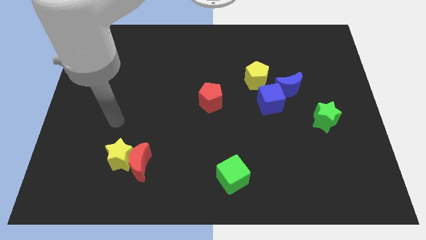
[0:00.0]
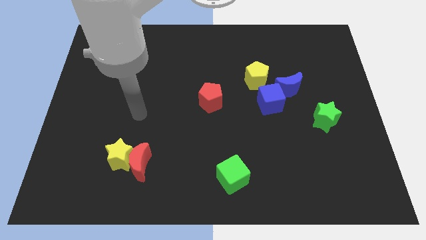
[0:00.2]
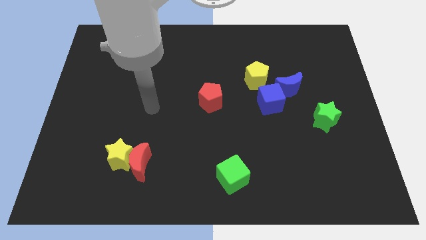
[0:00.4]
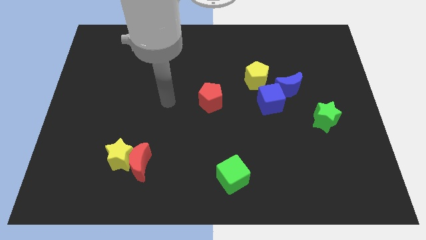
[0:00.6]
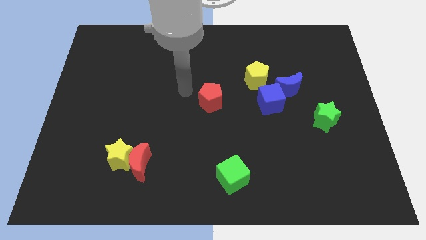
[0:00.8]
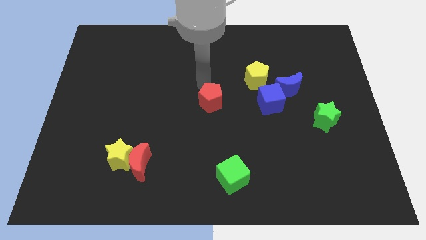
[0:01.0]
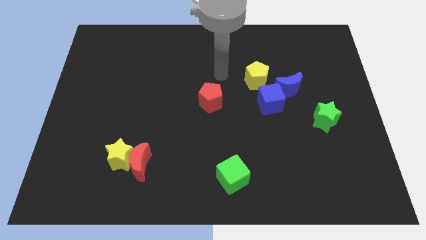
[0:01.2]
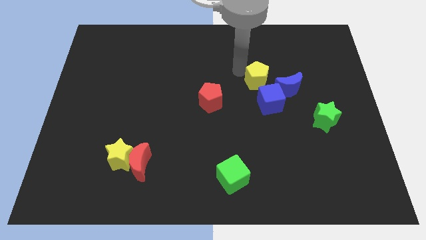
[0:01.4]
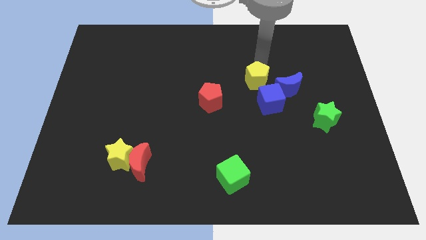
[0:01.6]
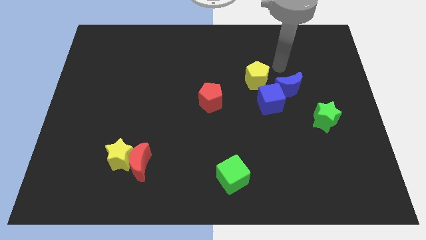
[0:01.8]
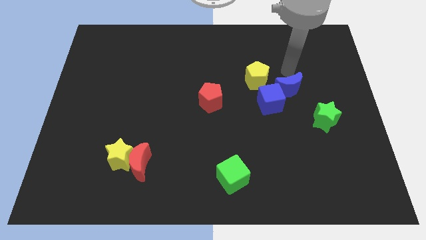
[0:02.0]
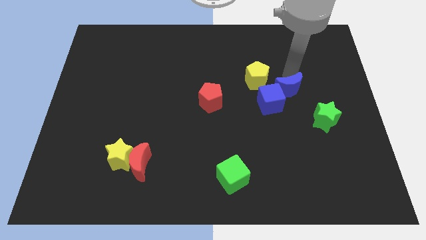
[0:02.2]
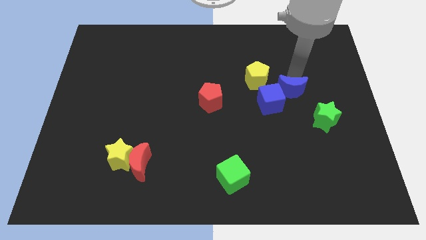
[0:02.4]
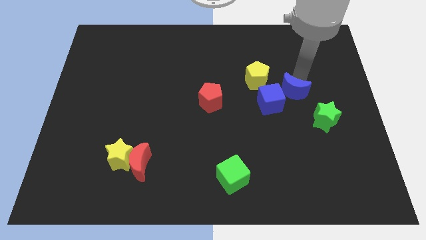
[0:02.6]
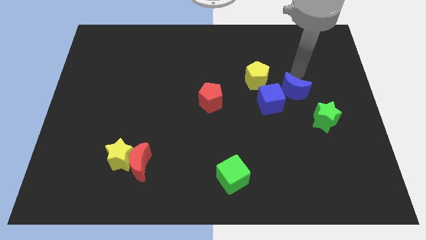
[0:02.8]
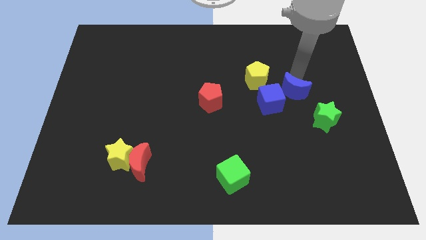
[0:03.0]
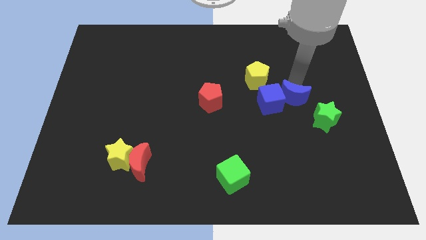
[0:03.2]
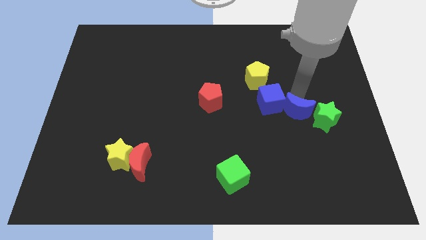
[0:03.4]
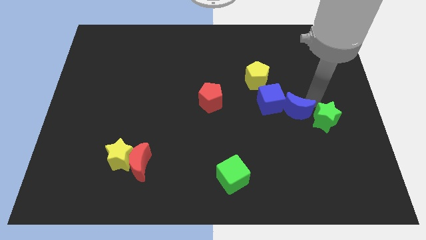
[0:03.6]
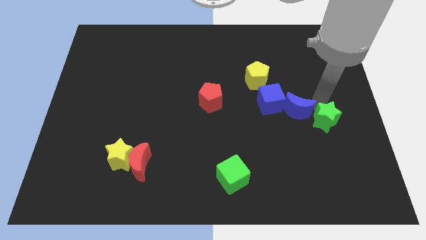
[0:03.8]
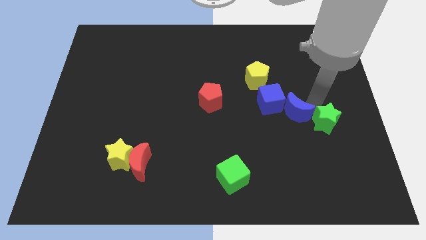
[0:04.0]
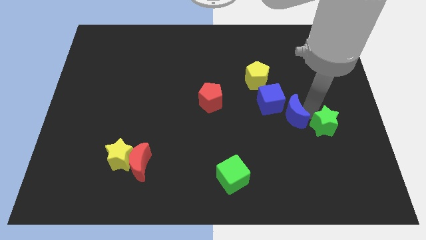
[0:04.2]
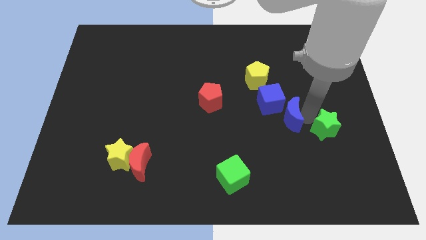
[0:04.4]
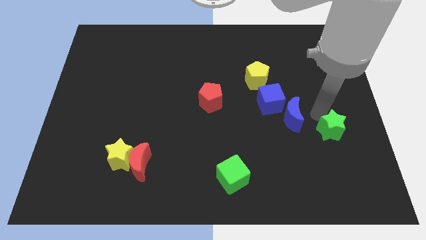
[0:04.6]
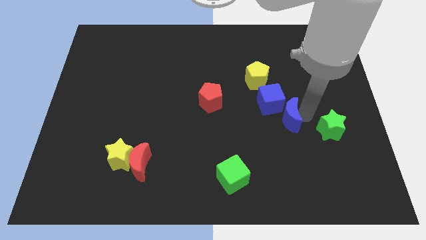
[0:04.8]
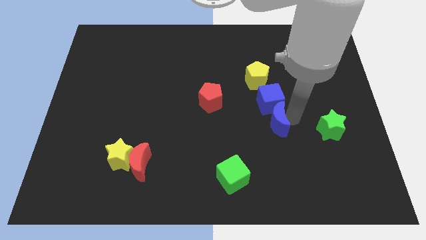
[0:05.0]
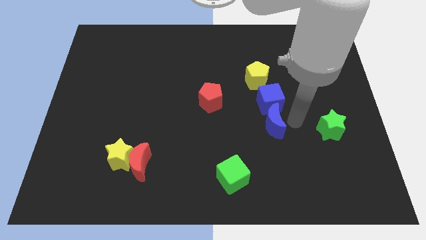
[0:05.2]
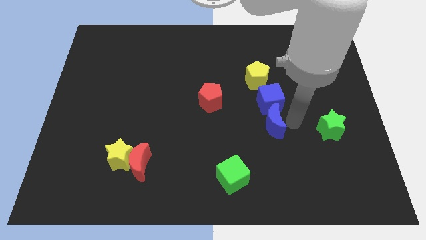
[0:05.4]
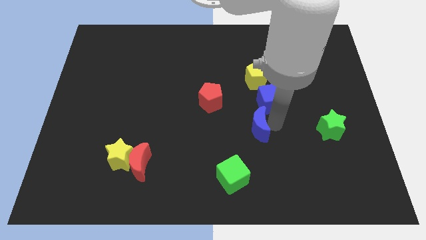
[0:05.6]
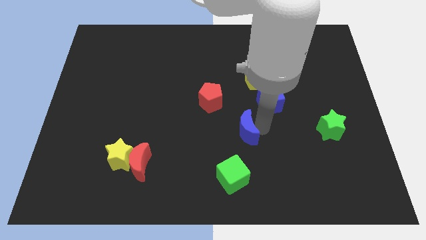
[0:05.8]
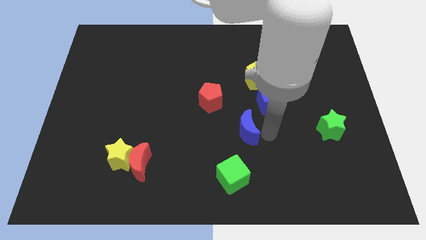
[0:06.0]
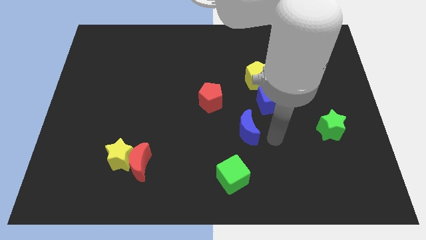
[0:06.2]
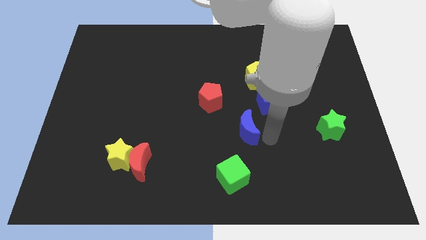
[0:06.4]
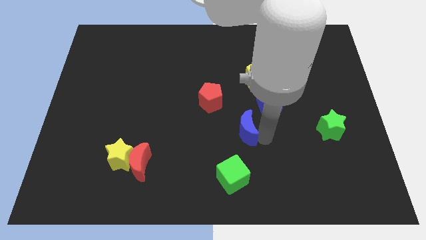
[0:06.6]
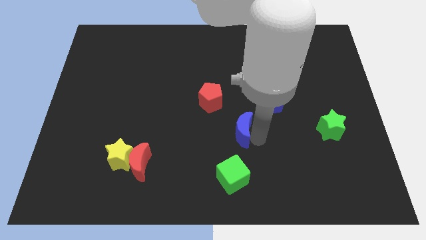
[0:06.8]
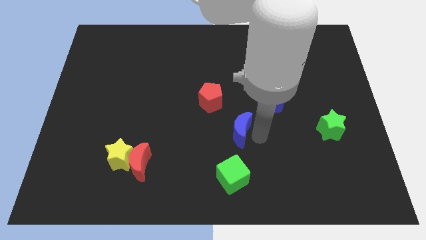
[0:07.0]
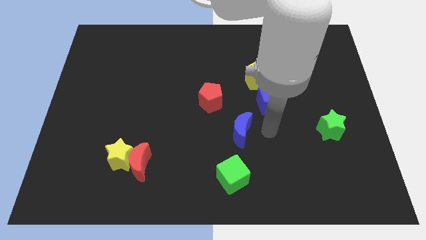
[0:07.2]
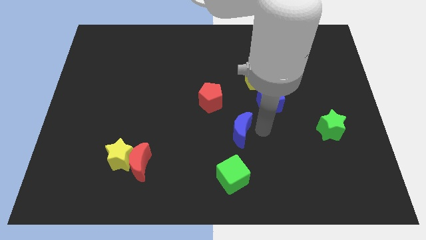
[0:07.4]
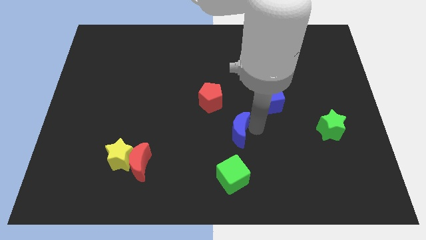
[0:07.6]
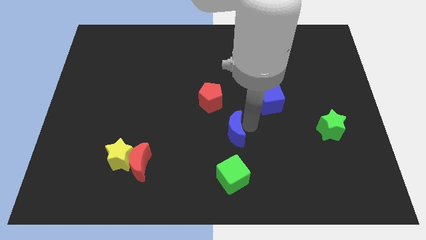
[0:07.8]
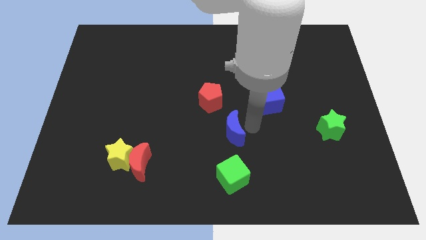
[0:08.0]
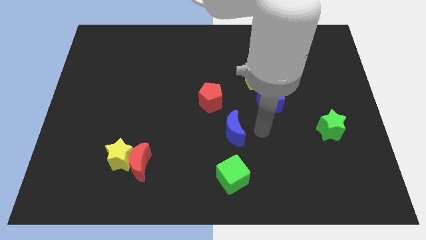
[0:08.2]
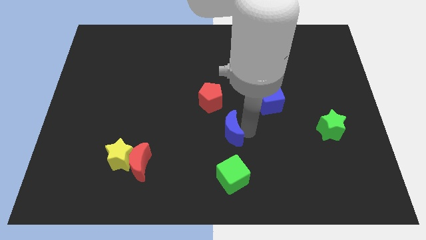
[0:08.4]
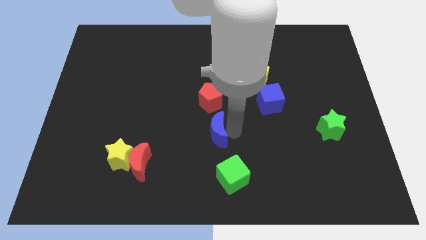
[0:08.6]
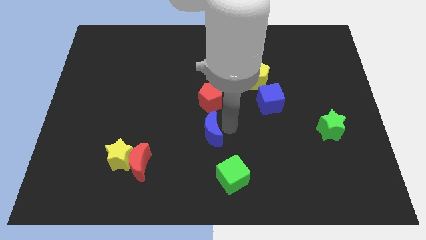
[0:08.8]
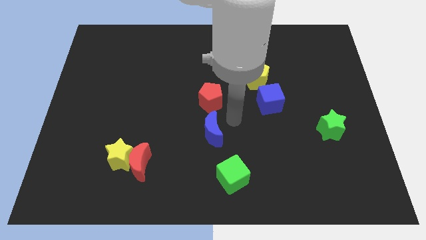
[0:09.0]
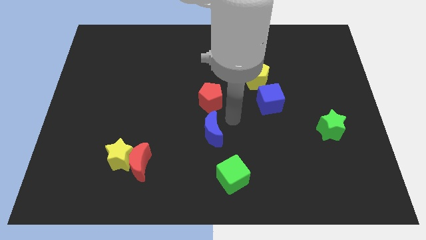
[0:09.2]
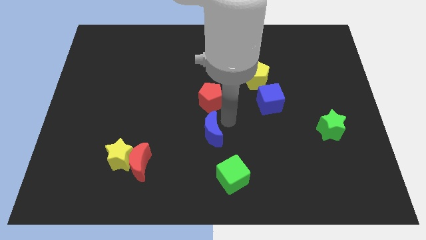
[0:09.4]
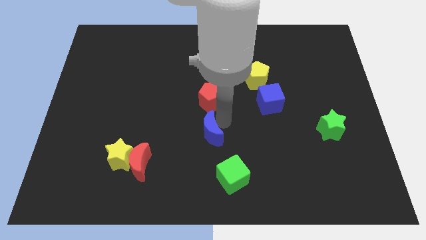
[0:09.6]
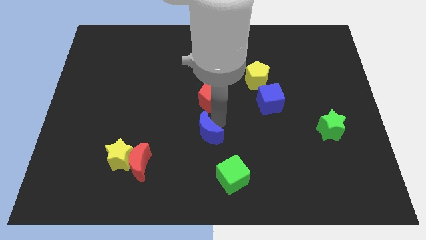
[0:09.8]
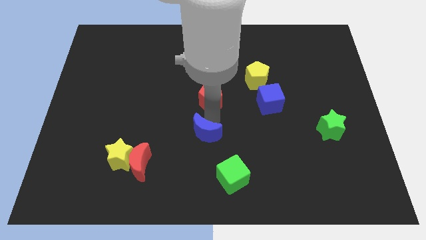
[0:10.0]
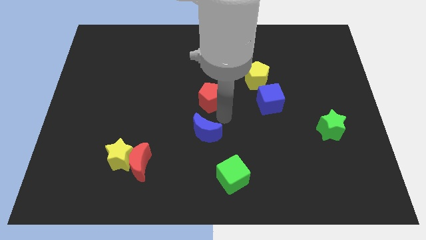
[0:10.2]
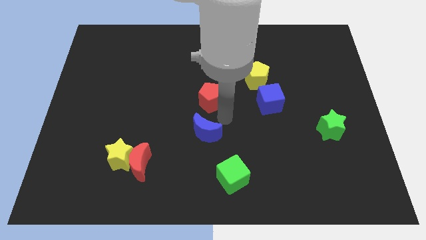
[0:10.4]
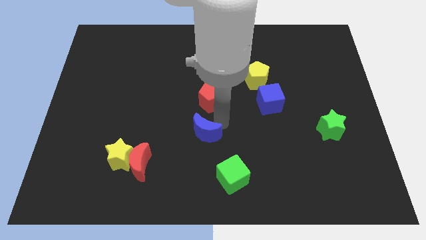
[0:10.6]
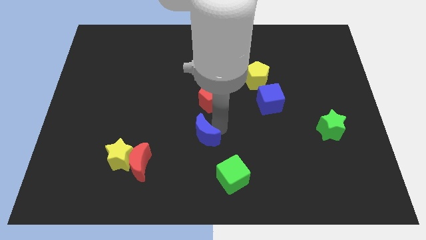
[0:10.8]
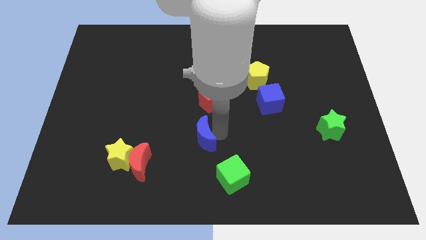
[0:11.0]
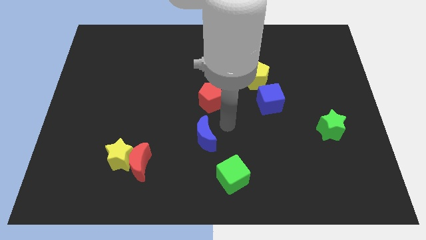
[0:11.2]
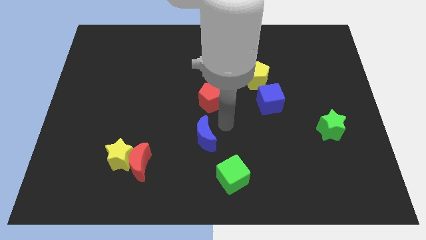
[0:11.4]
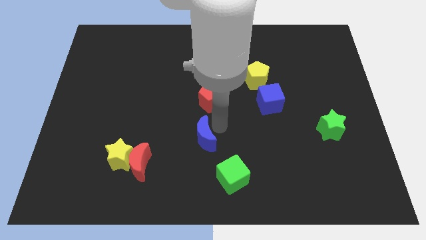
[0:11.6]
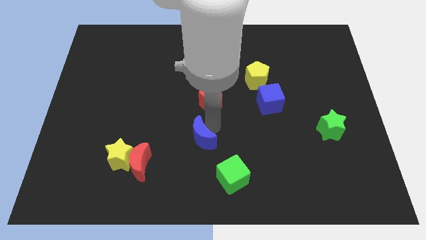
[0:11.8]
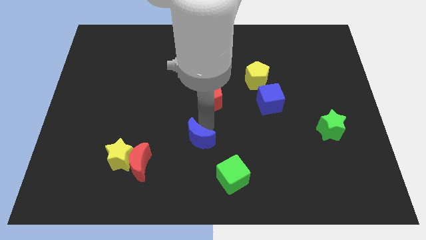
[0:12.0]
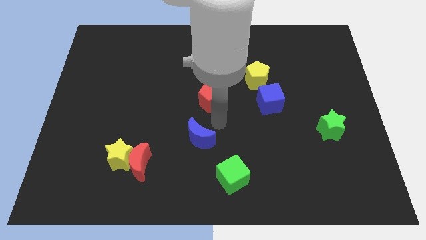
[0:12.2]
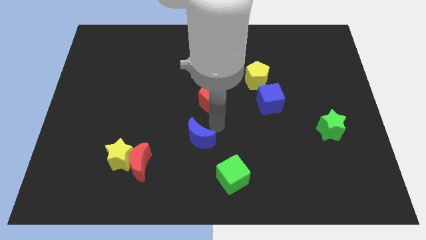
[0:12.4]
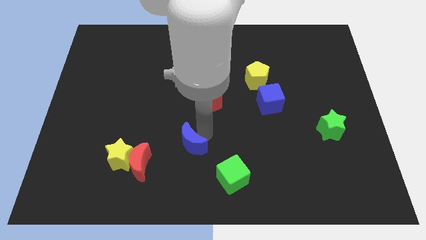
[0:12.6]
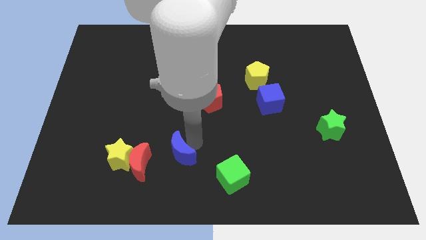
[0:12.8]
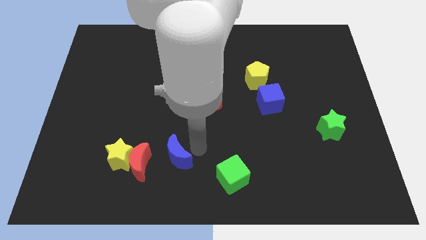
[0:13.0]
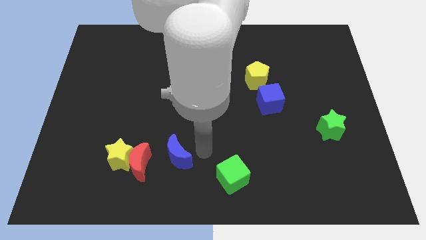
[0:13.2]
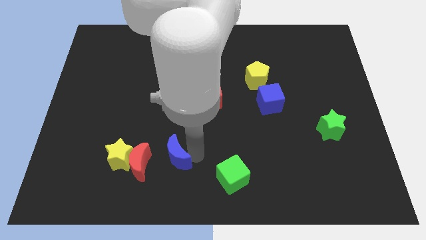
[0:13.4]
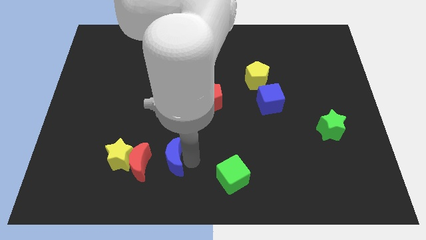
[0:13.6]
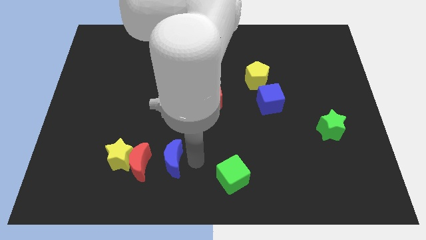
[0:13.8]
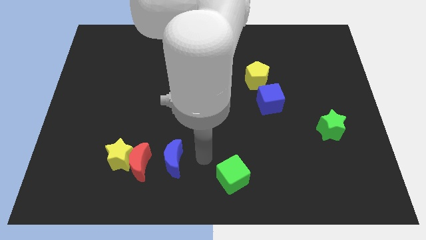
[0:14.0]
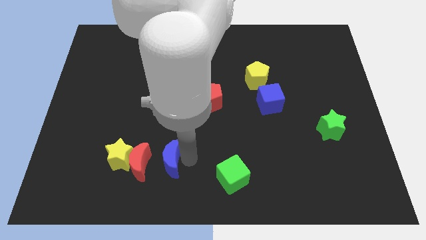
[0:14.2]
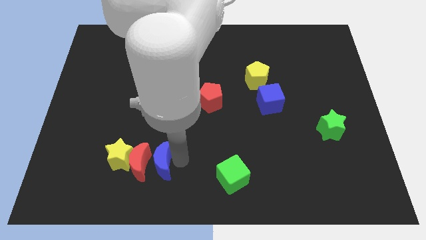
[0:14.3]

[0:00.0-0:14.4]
move the blue moon next to the red moon

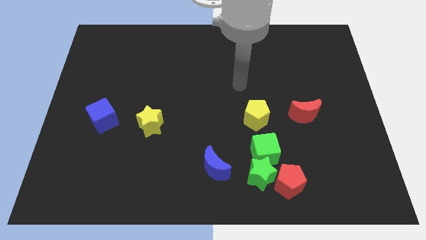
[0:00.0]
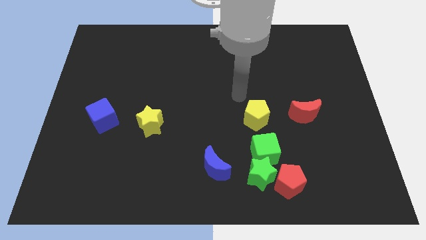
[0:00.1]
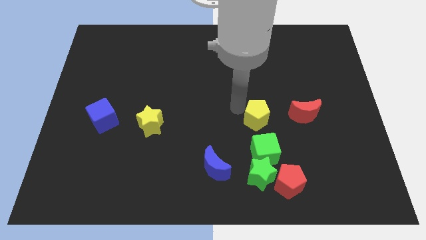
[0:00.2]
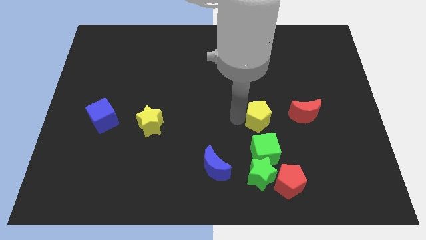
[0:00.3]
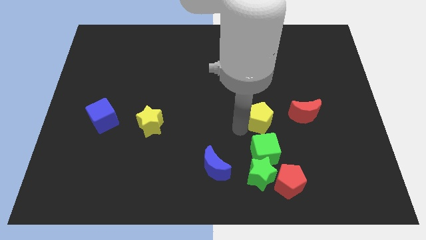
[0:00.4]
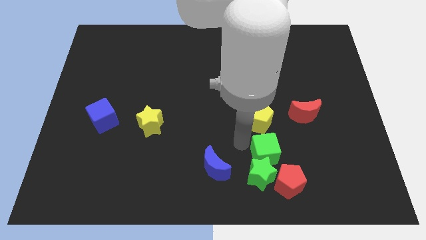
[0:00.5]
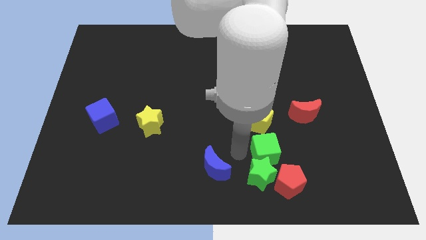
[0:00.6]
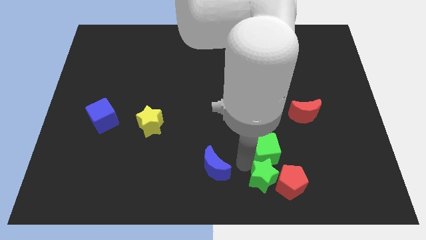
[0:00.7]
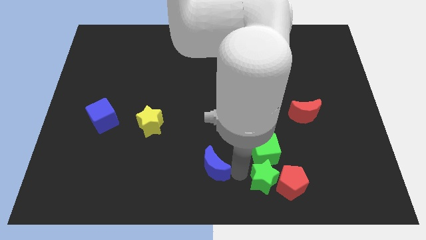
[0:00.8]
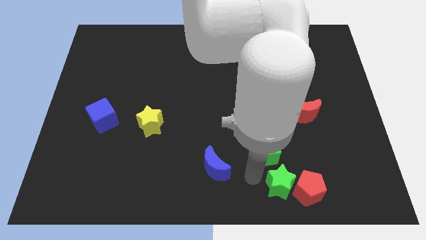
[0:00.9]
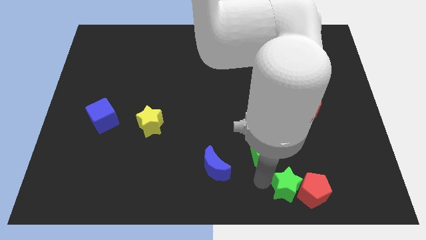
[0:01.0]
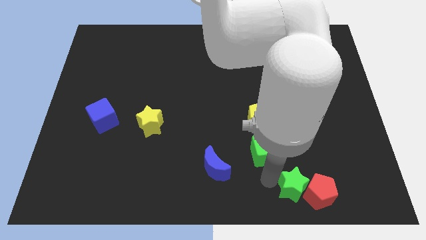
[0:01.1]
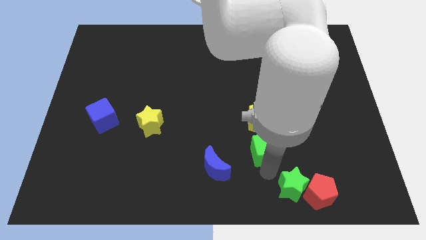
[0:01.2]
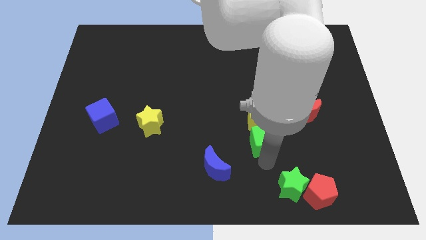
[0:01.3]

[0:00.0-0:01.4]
move the green cube next to the yellow pentagon
